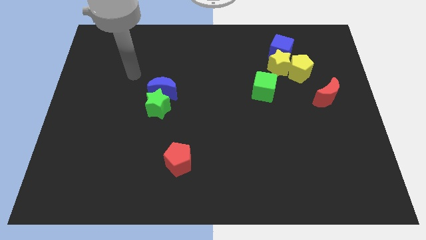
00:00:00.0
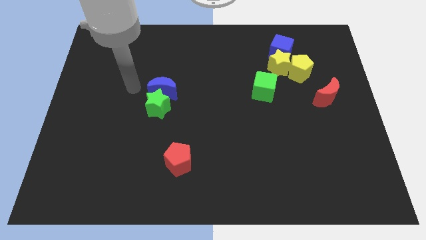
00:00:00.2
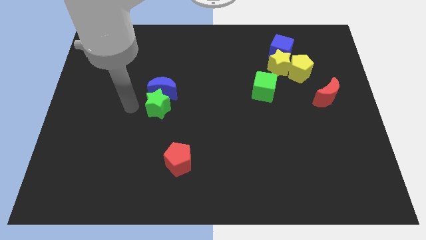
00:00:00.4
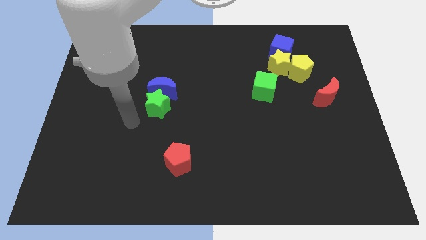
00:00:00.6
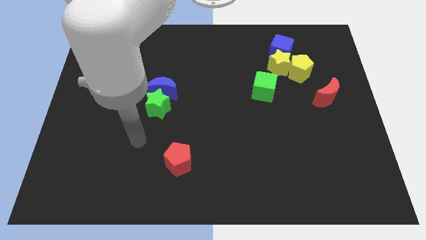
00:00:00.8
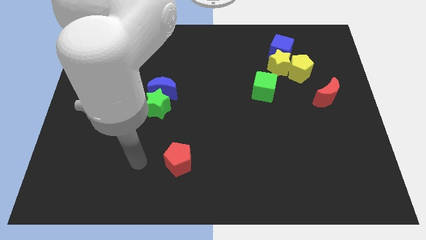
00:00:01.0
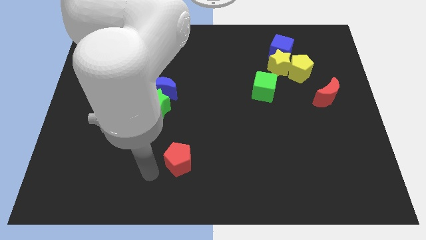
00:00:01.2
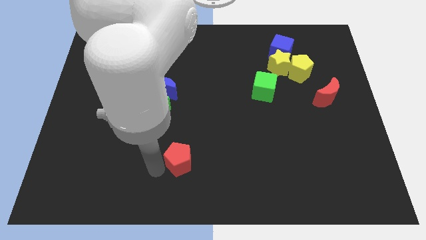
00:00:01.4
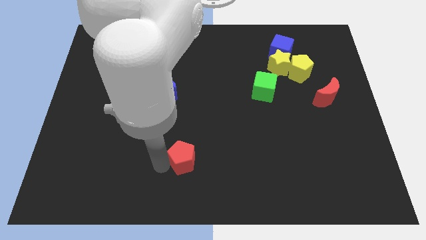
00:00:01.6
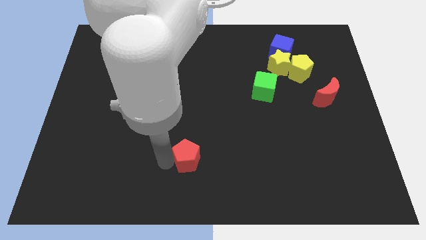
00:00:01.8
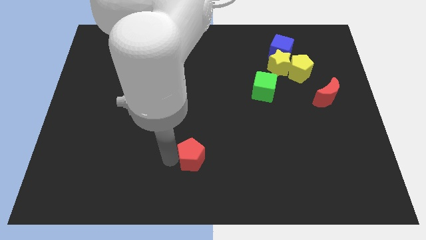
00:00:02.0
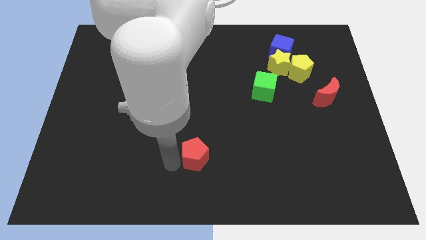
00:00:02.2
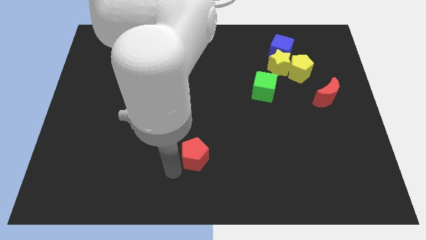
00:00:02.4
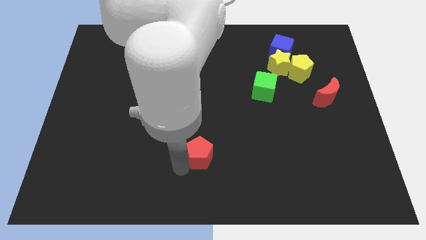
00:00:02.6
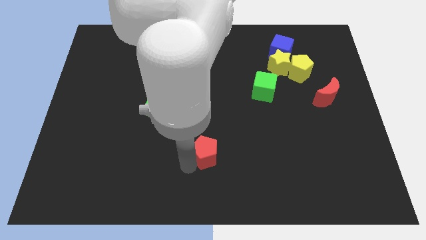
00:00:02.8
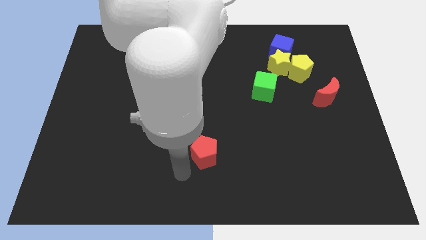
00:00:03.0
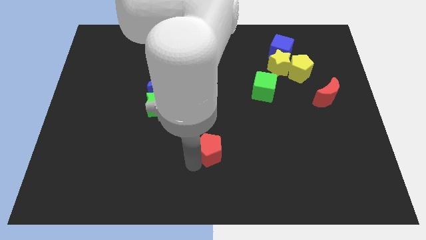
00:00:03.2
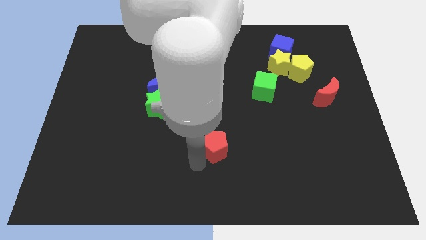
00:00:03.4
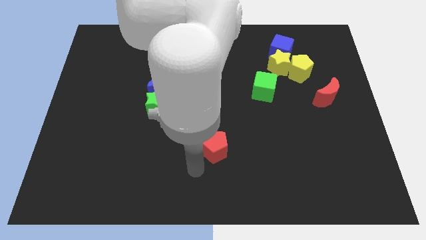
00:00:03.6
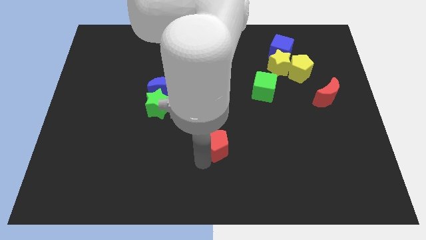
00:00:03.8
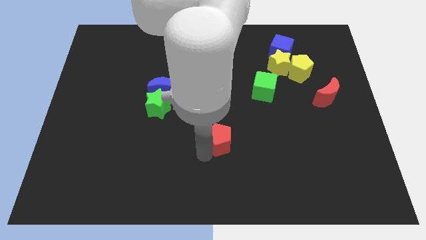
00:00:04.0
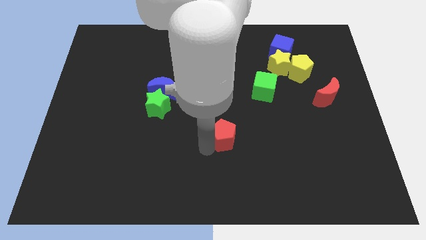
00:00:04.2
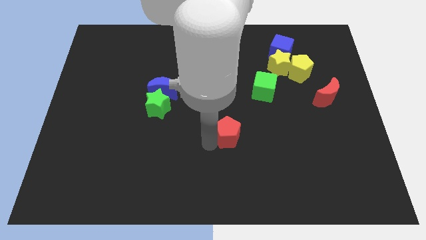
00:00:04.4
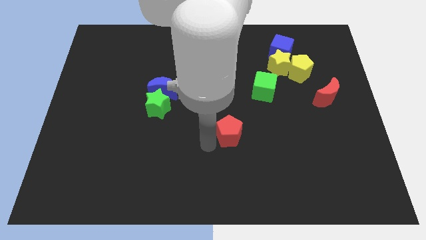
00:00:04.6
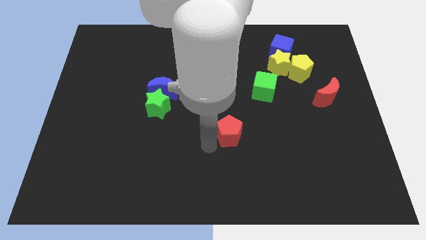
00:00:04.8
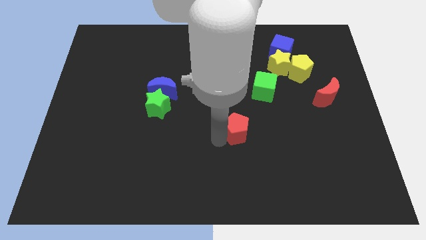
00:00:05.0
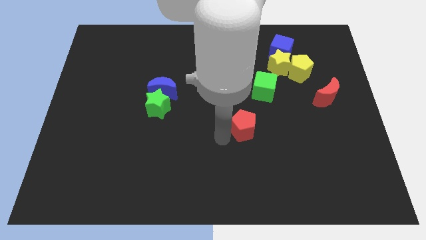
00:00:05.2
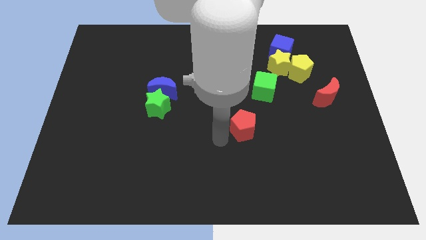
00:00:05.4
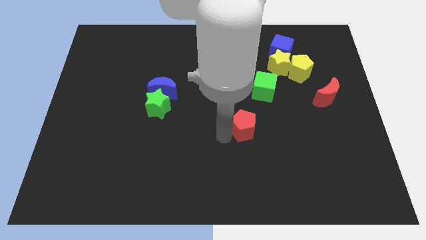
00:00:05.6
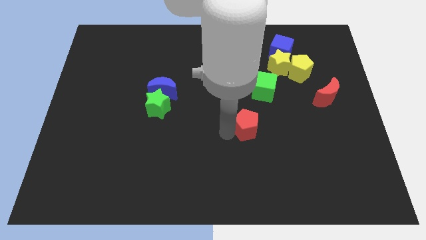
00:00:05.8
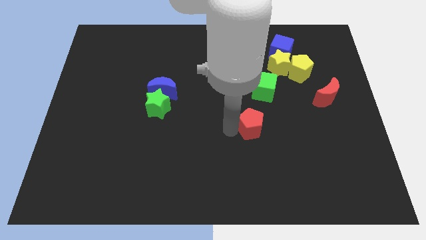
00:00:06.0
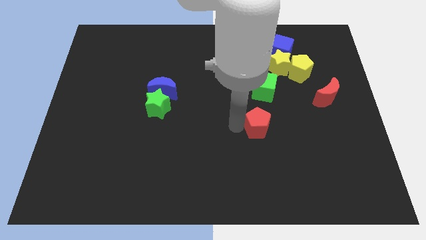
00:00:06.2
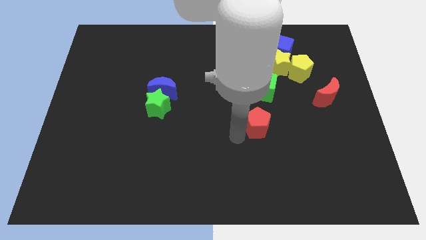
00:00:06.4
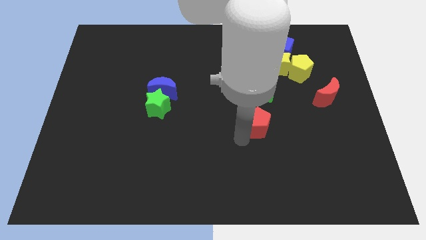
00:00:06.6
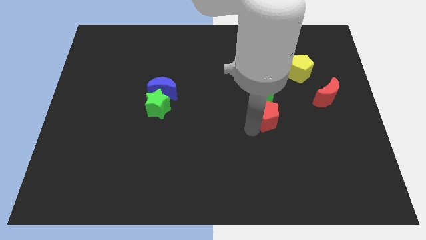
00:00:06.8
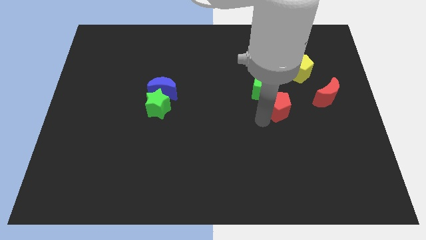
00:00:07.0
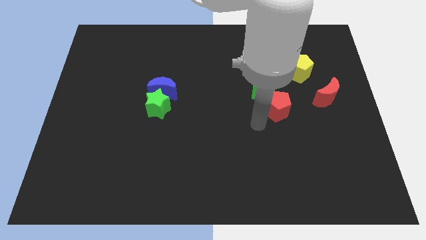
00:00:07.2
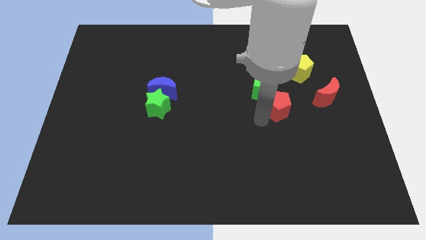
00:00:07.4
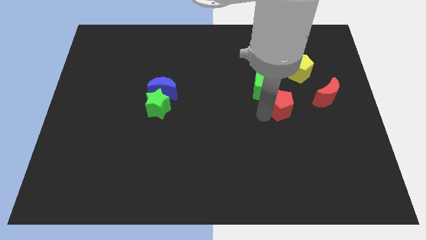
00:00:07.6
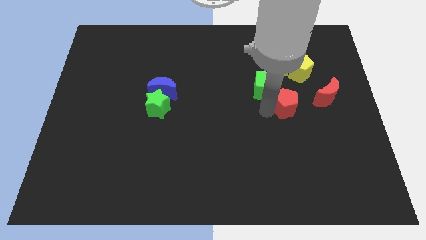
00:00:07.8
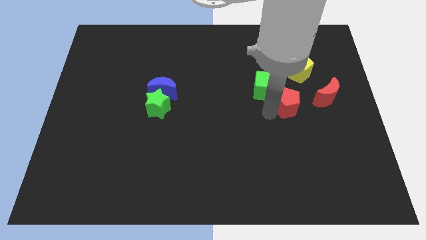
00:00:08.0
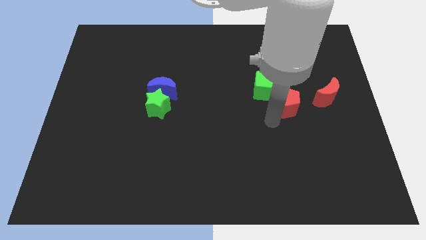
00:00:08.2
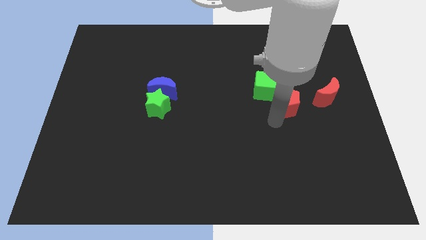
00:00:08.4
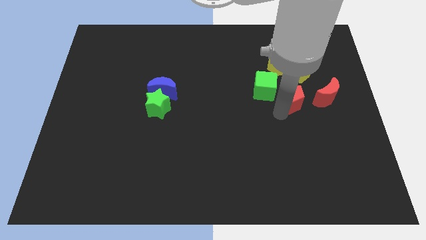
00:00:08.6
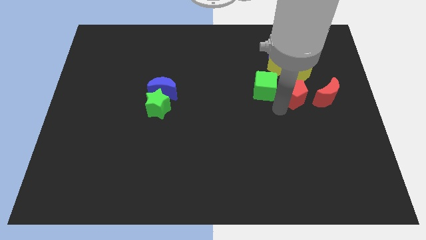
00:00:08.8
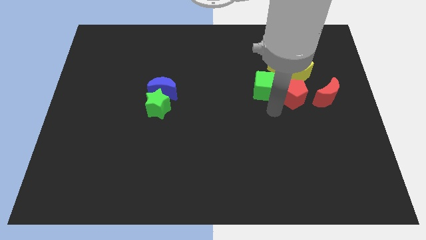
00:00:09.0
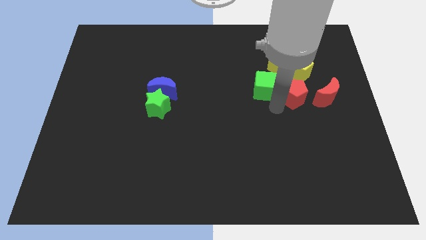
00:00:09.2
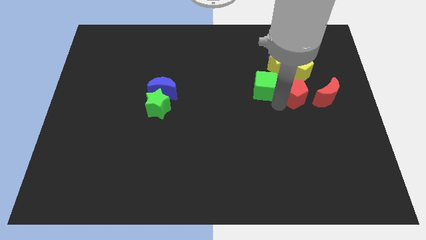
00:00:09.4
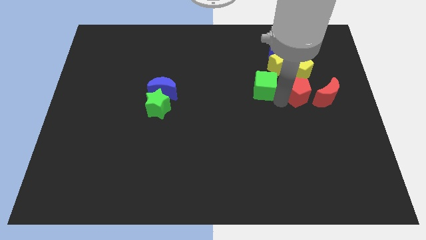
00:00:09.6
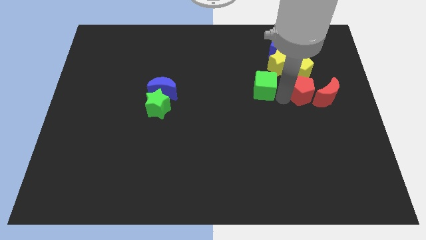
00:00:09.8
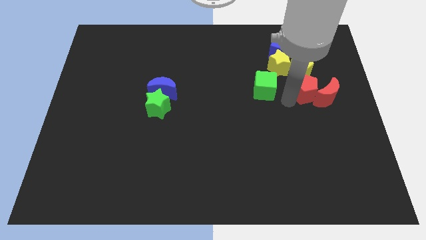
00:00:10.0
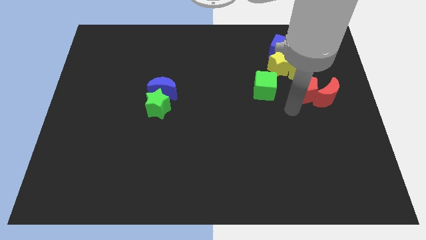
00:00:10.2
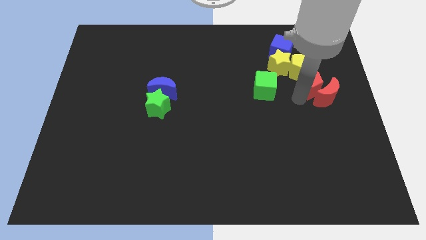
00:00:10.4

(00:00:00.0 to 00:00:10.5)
move the red pentagon above the red moon

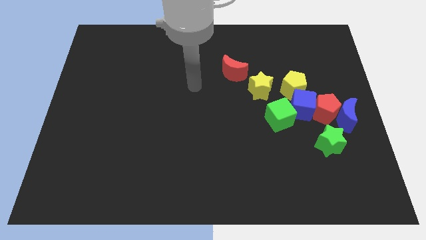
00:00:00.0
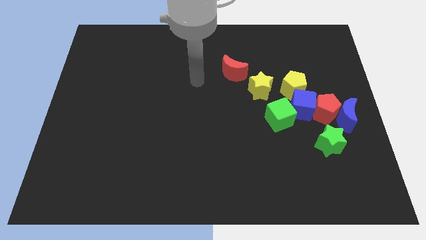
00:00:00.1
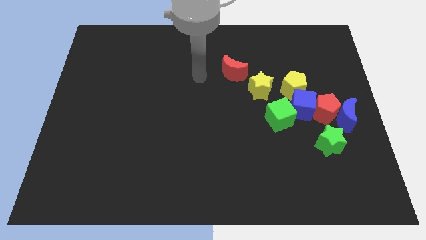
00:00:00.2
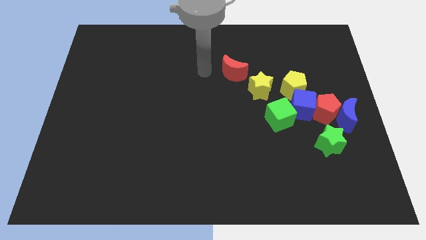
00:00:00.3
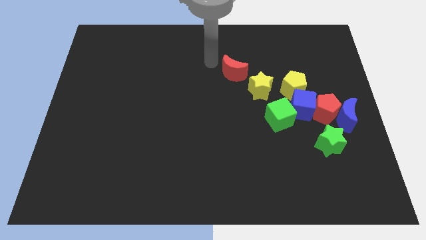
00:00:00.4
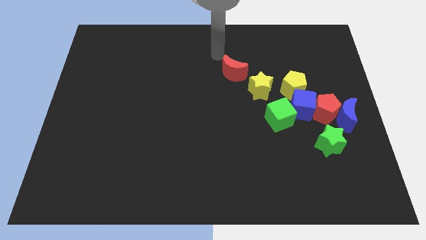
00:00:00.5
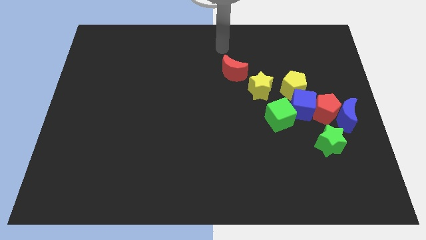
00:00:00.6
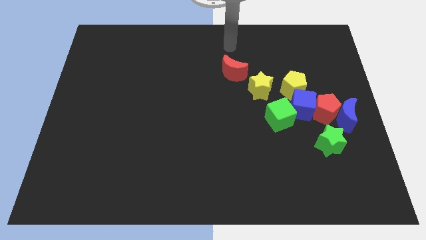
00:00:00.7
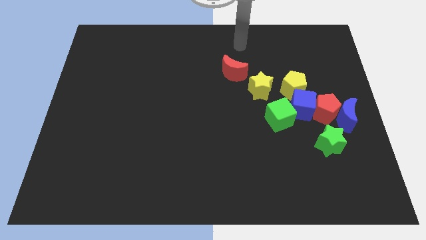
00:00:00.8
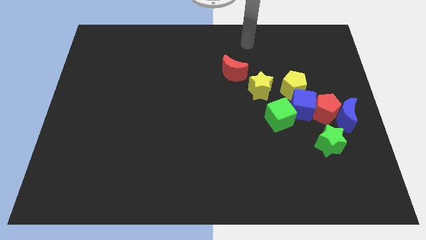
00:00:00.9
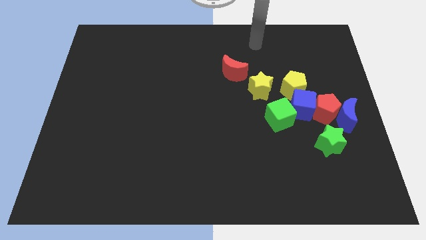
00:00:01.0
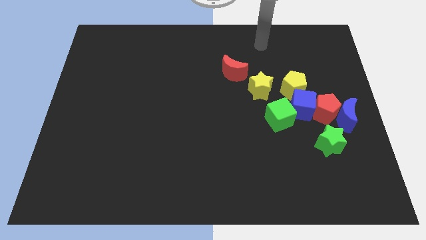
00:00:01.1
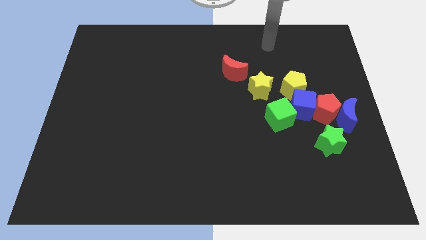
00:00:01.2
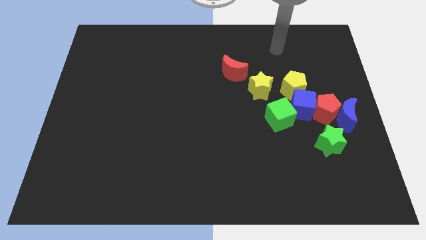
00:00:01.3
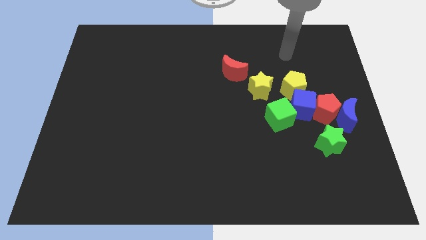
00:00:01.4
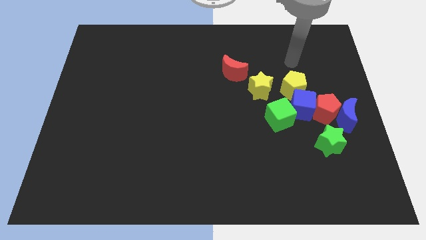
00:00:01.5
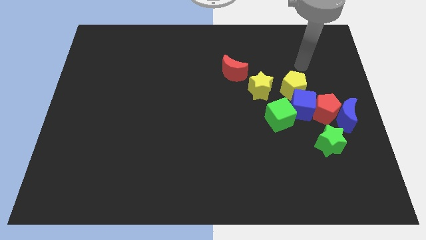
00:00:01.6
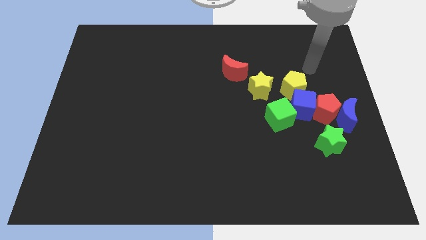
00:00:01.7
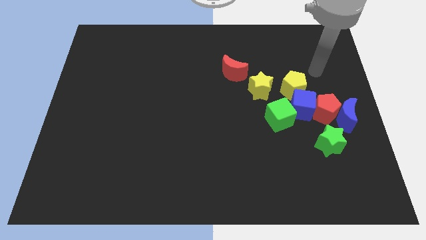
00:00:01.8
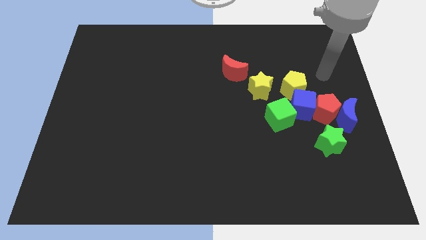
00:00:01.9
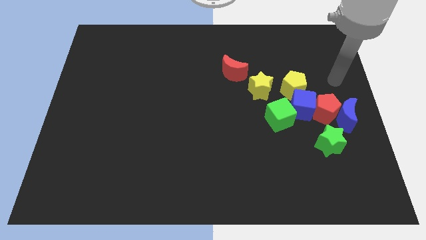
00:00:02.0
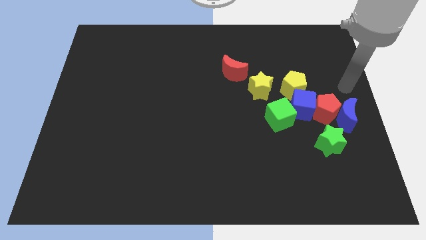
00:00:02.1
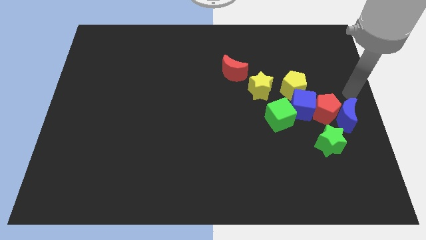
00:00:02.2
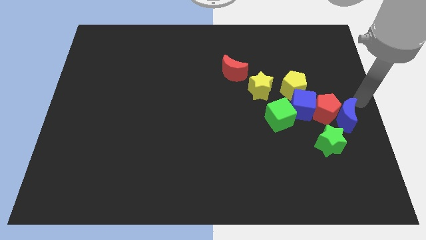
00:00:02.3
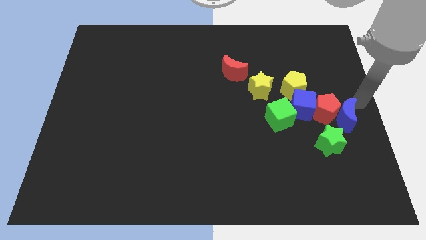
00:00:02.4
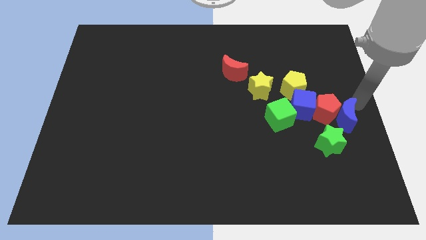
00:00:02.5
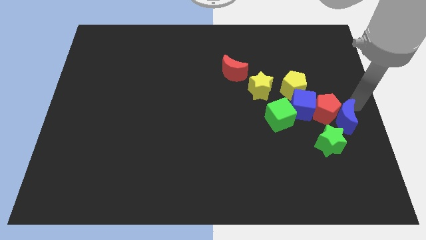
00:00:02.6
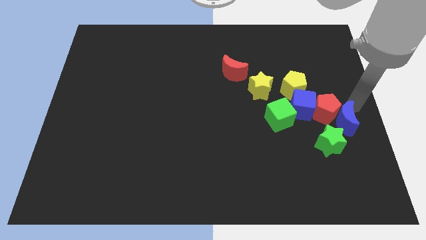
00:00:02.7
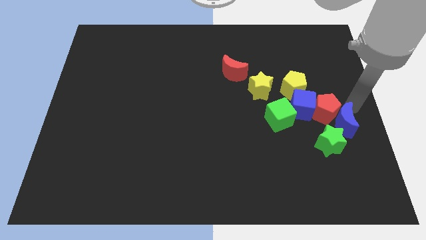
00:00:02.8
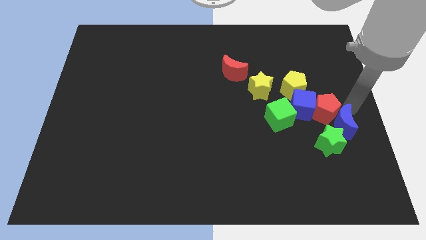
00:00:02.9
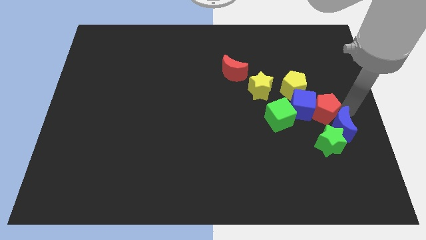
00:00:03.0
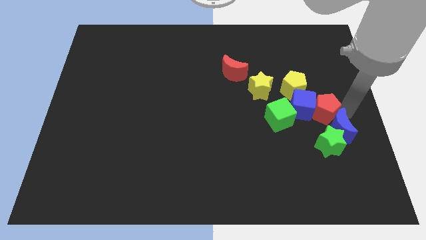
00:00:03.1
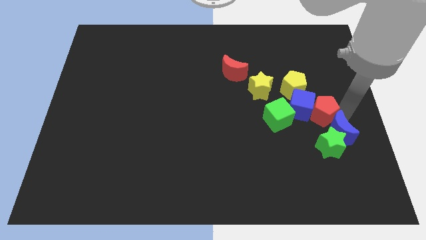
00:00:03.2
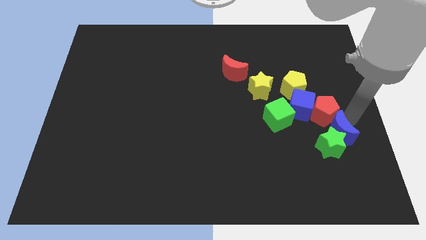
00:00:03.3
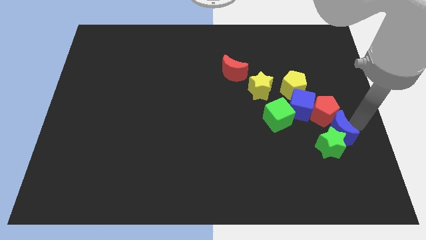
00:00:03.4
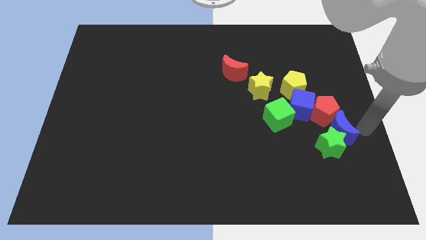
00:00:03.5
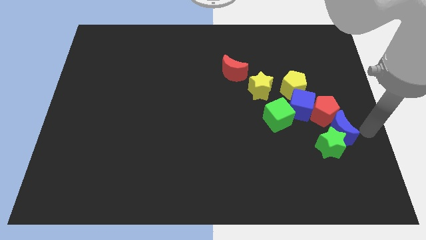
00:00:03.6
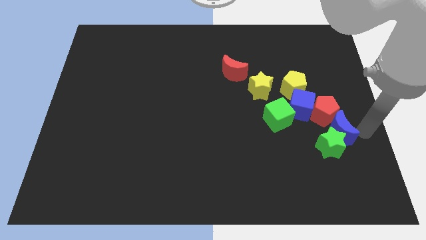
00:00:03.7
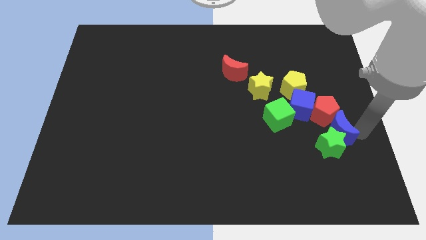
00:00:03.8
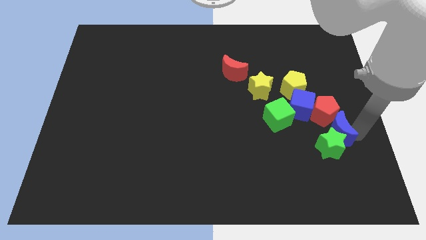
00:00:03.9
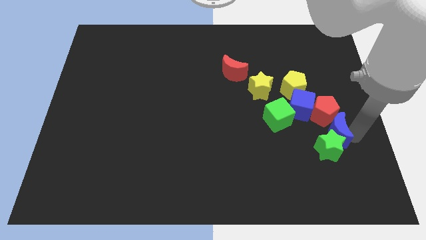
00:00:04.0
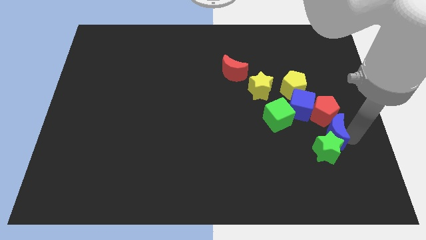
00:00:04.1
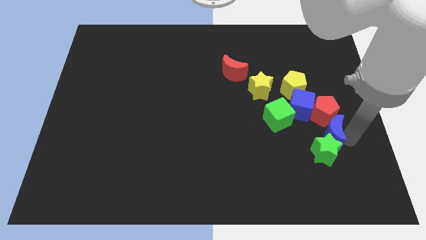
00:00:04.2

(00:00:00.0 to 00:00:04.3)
push the blue moon to the bottom left of the red pentagon
